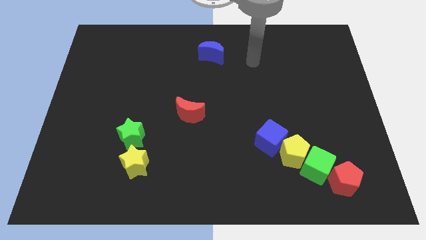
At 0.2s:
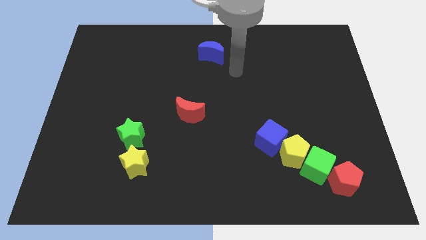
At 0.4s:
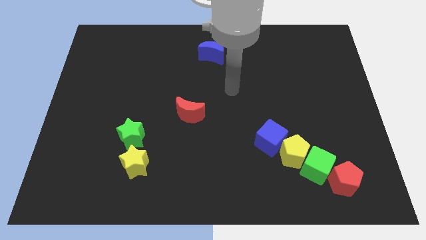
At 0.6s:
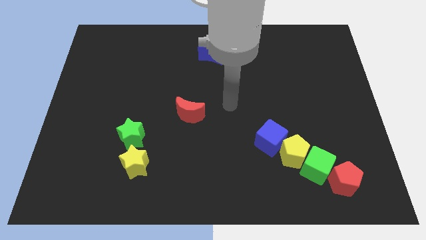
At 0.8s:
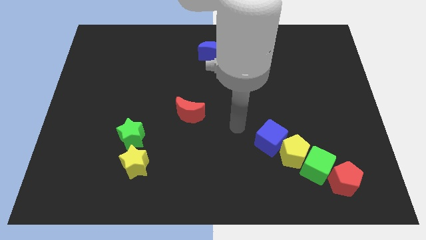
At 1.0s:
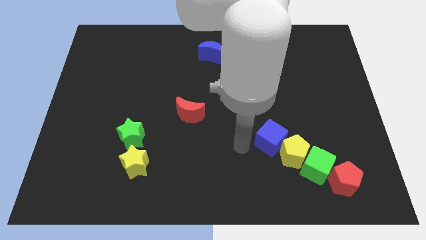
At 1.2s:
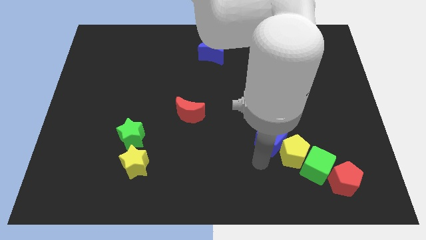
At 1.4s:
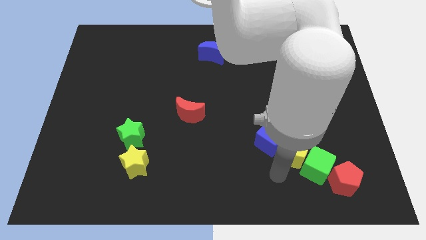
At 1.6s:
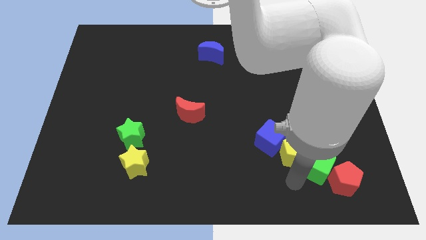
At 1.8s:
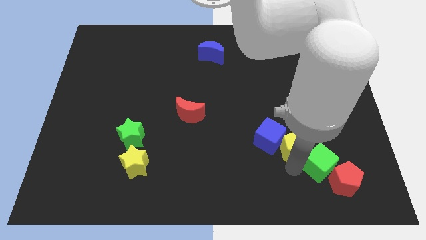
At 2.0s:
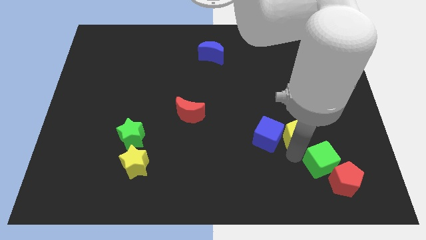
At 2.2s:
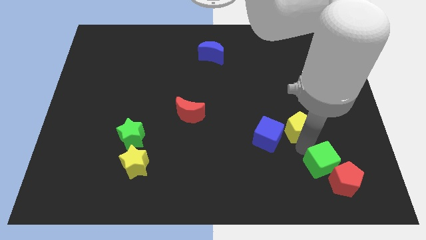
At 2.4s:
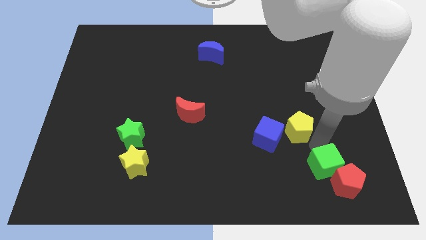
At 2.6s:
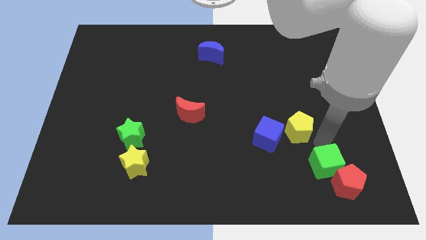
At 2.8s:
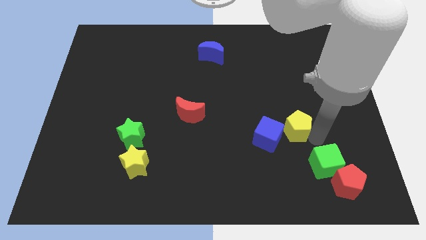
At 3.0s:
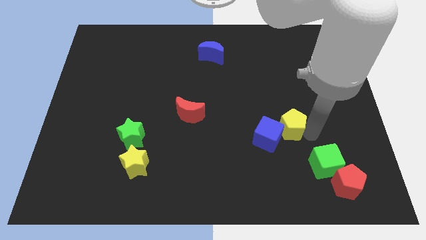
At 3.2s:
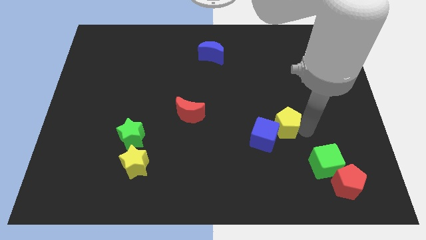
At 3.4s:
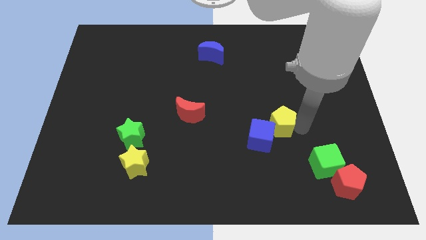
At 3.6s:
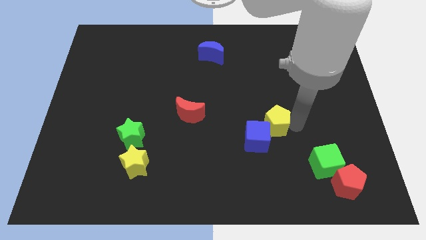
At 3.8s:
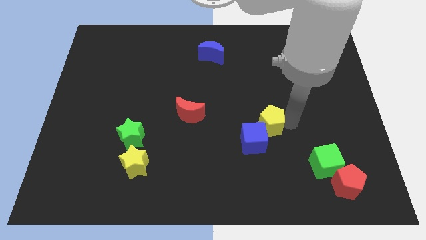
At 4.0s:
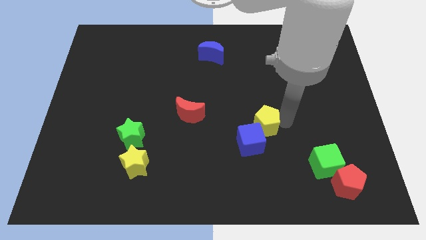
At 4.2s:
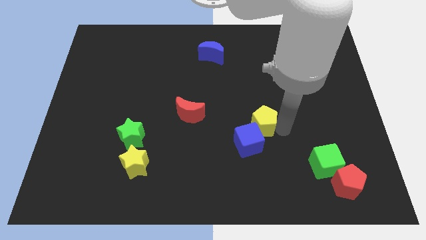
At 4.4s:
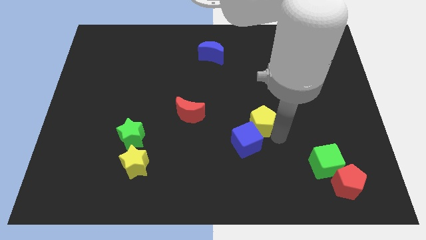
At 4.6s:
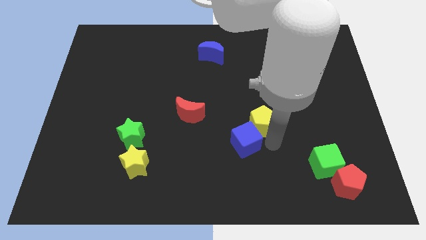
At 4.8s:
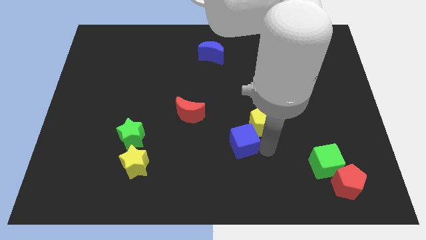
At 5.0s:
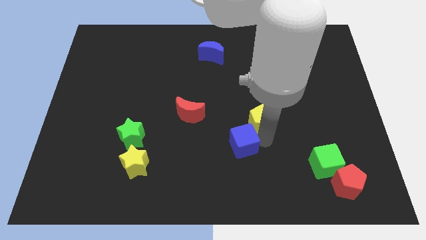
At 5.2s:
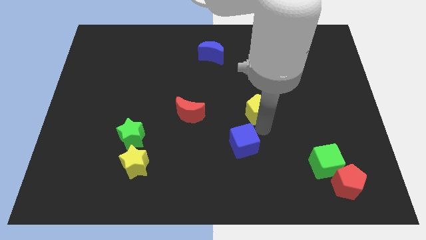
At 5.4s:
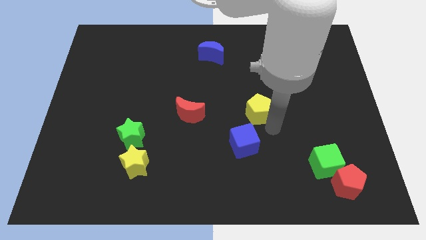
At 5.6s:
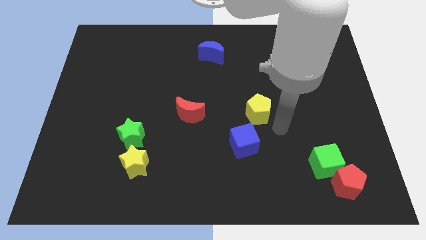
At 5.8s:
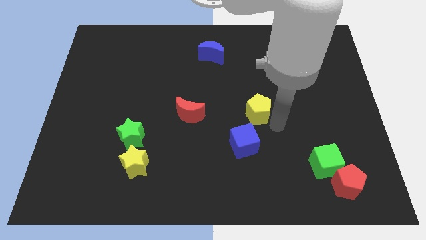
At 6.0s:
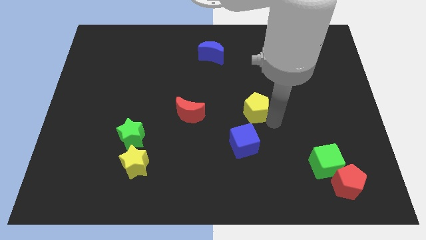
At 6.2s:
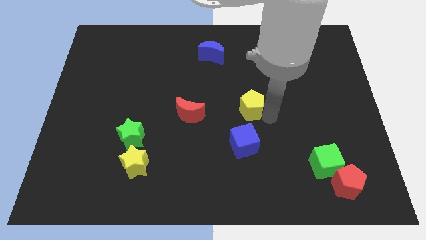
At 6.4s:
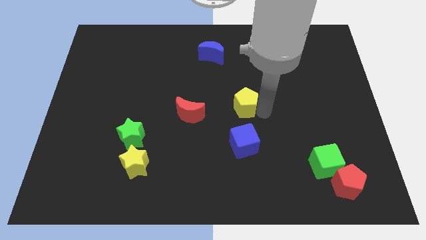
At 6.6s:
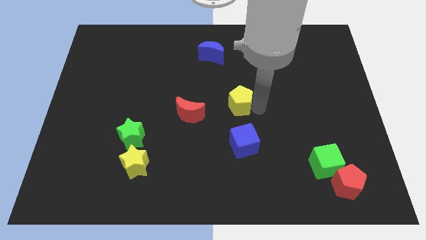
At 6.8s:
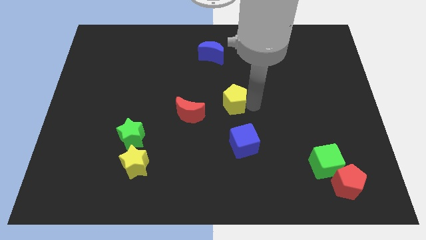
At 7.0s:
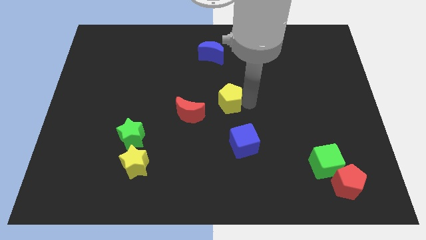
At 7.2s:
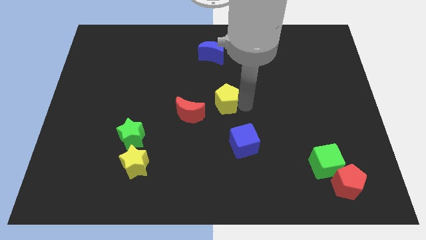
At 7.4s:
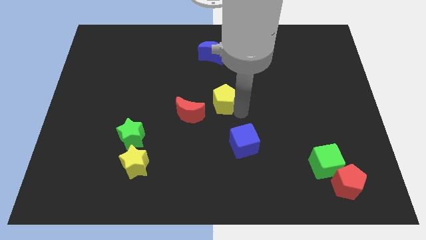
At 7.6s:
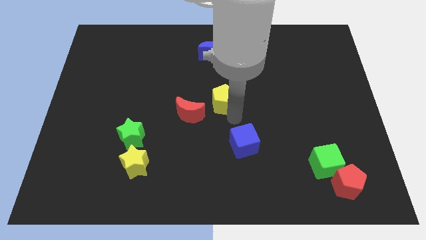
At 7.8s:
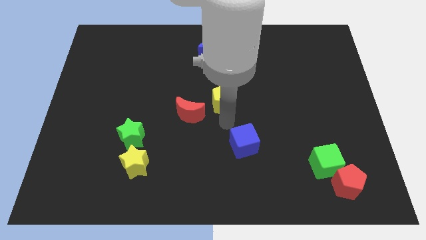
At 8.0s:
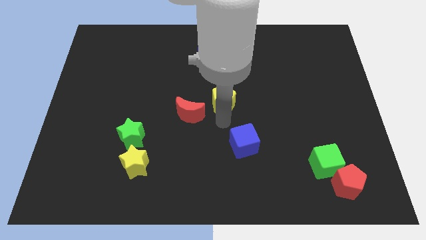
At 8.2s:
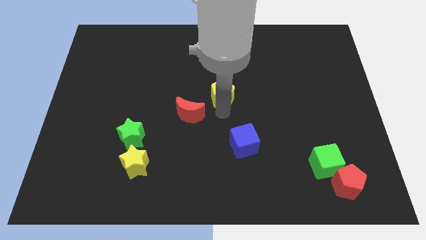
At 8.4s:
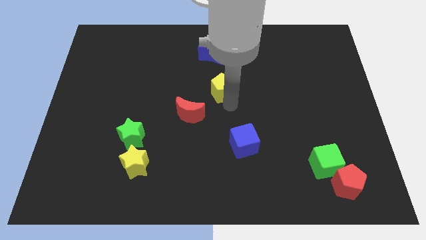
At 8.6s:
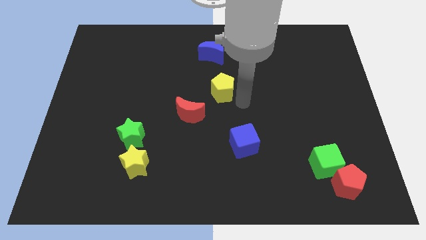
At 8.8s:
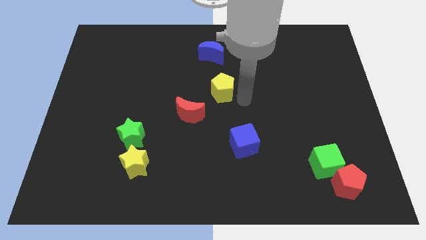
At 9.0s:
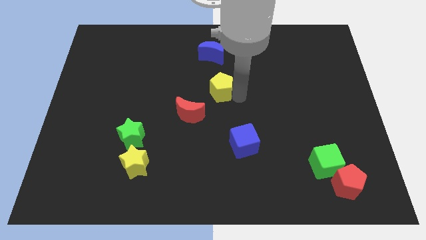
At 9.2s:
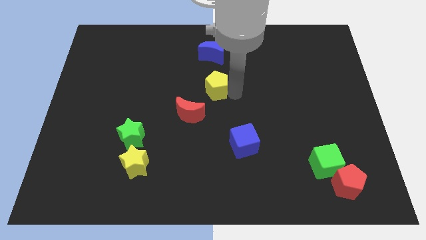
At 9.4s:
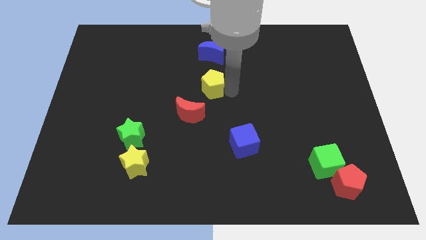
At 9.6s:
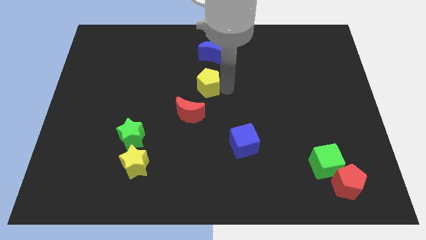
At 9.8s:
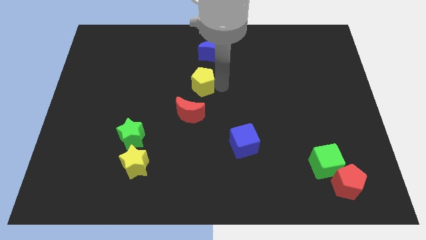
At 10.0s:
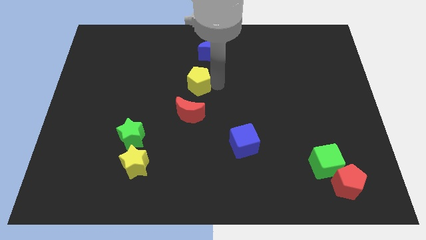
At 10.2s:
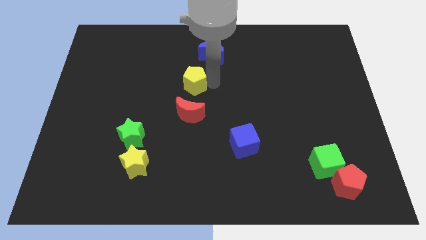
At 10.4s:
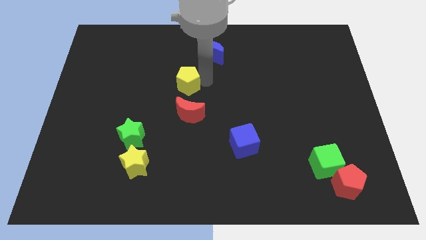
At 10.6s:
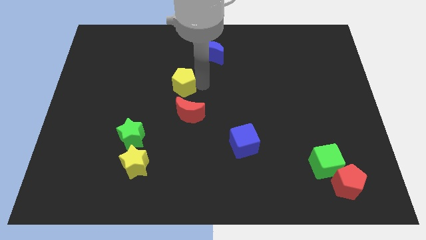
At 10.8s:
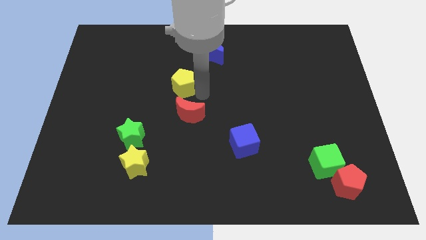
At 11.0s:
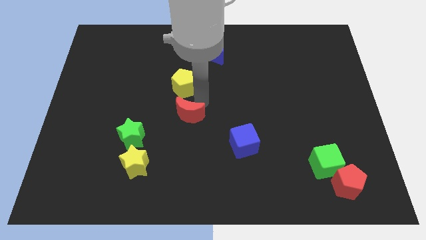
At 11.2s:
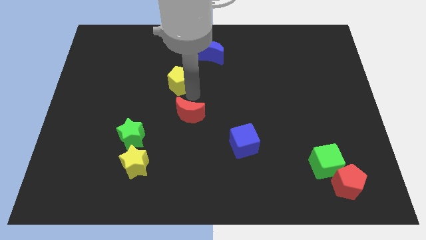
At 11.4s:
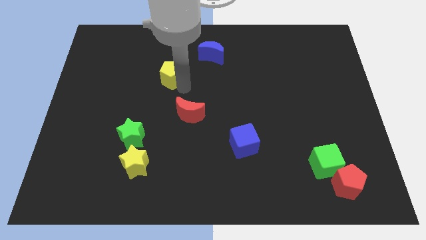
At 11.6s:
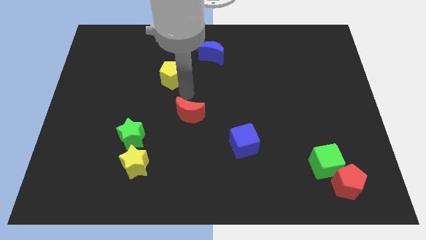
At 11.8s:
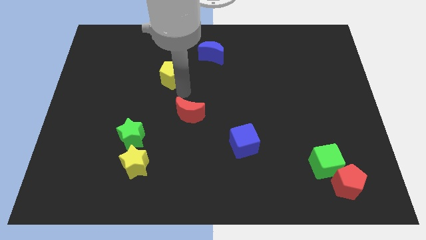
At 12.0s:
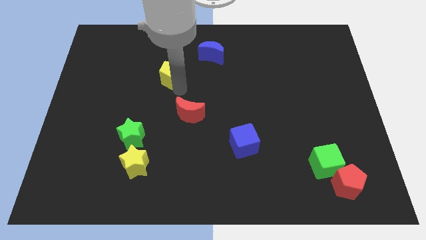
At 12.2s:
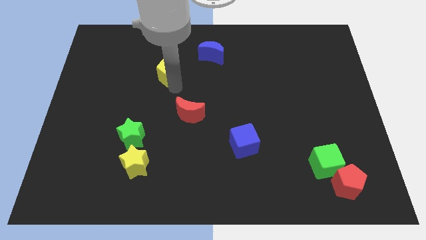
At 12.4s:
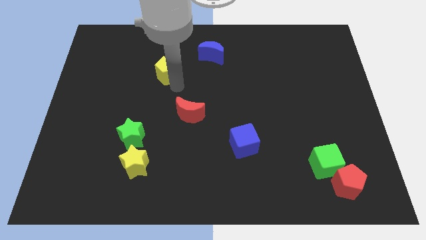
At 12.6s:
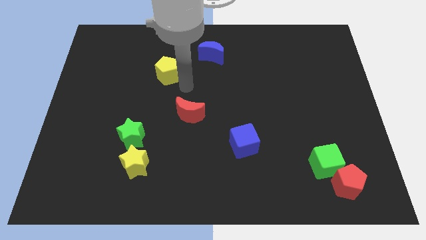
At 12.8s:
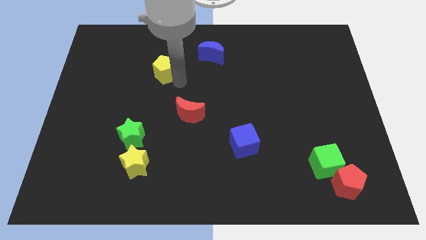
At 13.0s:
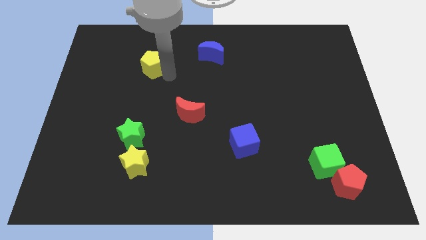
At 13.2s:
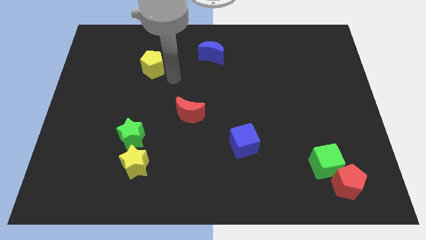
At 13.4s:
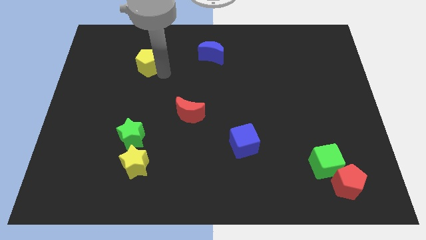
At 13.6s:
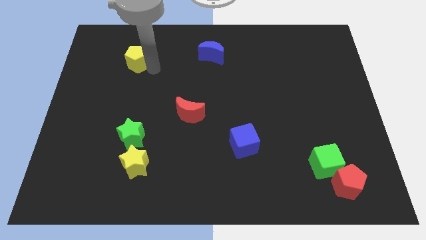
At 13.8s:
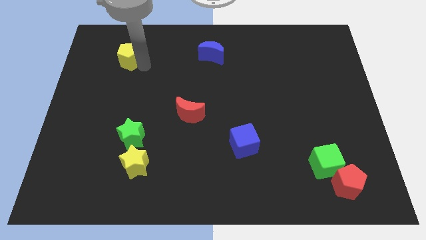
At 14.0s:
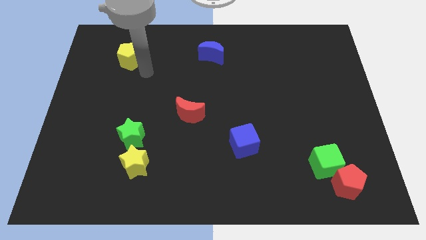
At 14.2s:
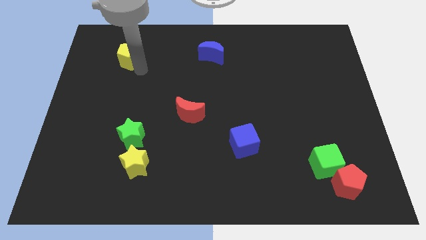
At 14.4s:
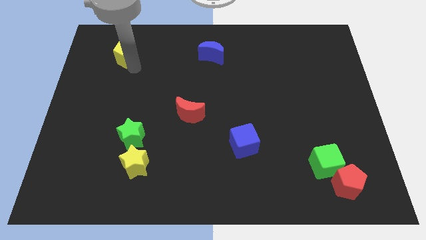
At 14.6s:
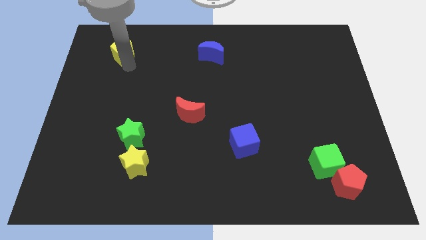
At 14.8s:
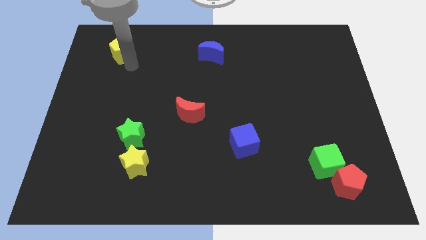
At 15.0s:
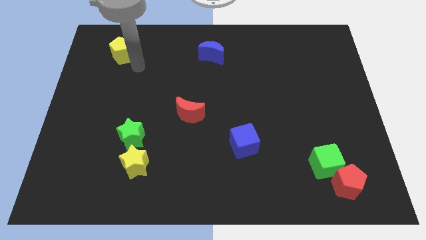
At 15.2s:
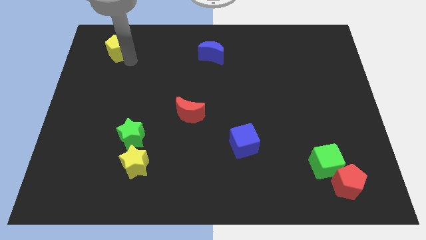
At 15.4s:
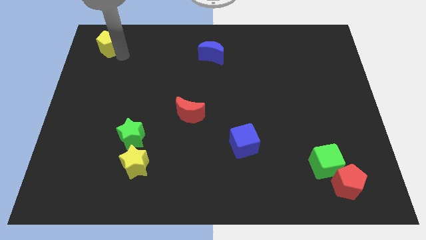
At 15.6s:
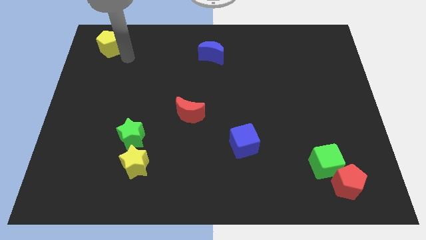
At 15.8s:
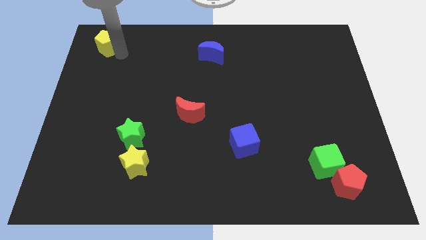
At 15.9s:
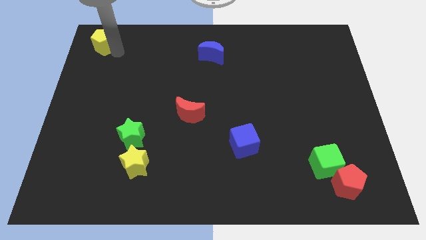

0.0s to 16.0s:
move the yellow pentagon to the top left
